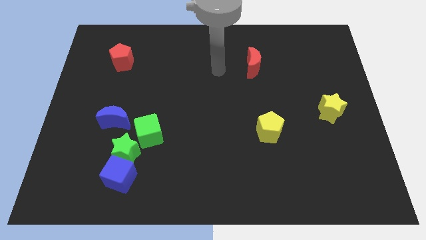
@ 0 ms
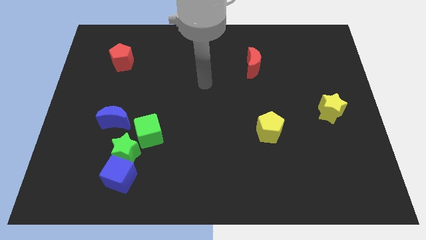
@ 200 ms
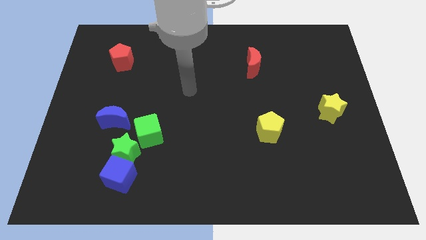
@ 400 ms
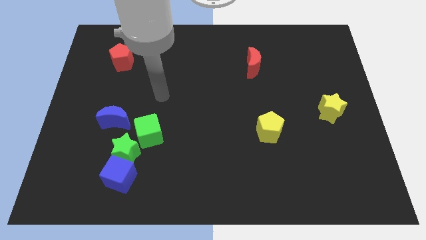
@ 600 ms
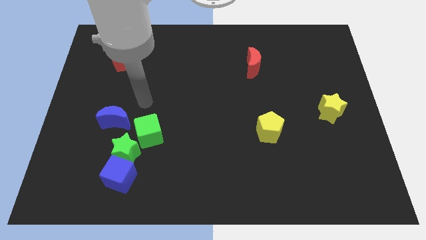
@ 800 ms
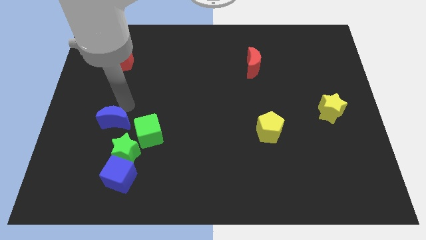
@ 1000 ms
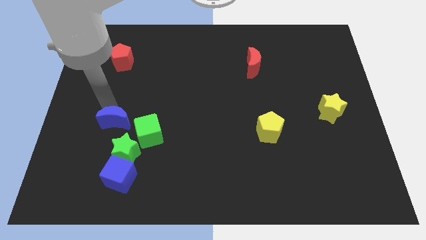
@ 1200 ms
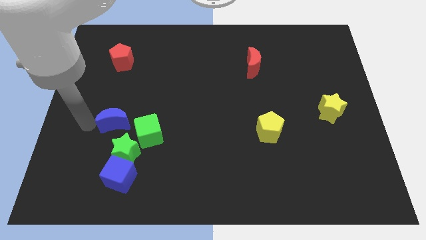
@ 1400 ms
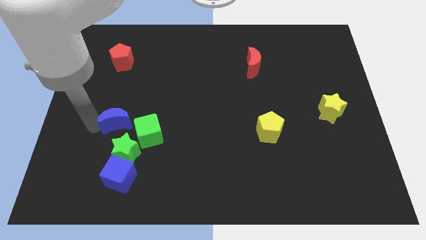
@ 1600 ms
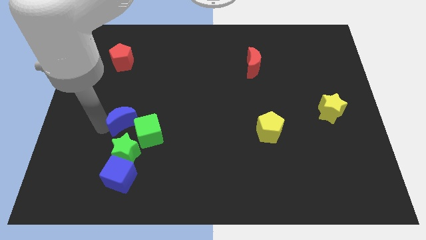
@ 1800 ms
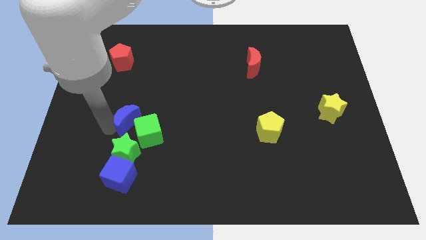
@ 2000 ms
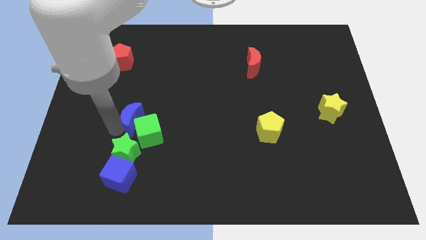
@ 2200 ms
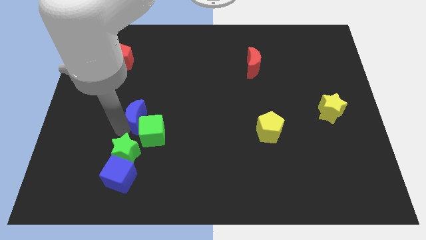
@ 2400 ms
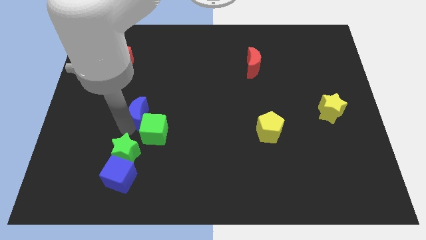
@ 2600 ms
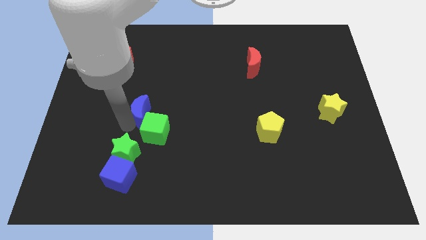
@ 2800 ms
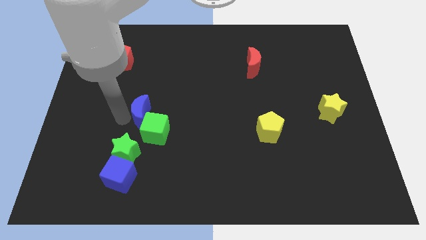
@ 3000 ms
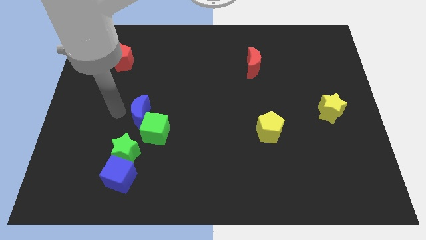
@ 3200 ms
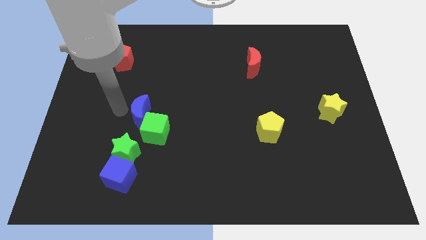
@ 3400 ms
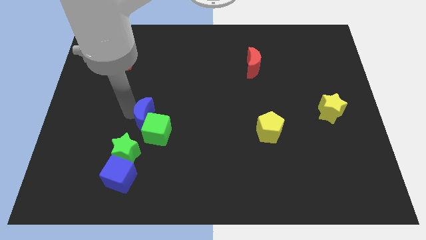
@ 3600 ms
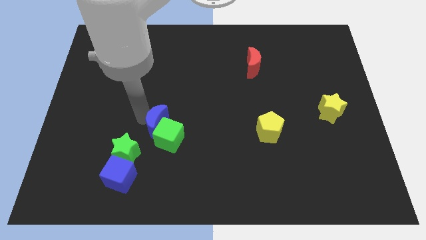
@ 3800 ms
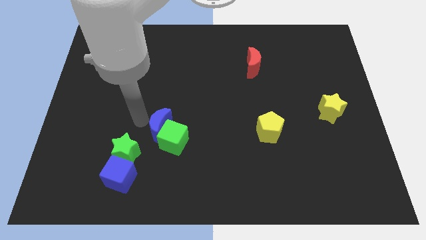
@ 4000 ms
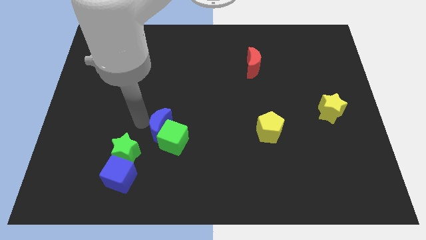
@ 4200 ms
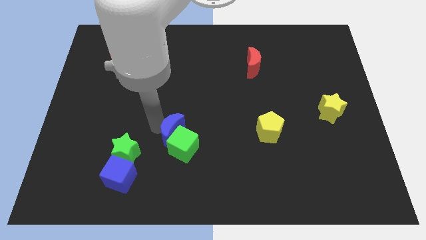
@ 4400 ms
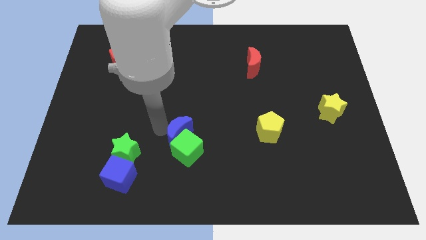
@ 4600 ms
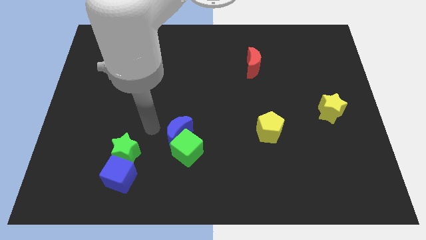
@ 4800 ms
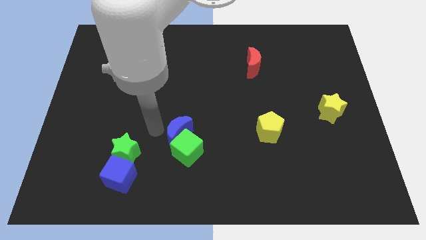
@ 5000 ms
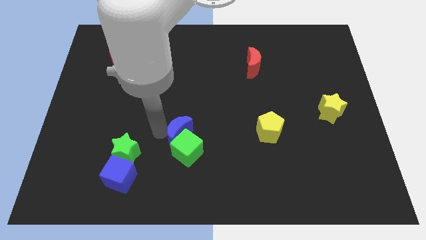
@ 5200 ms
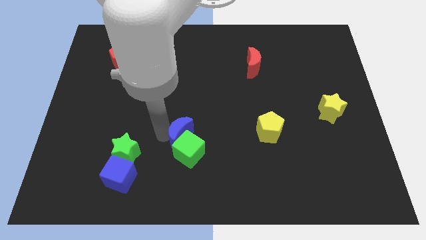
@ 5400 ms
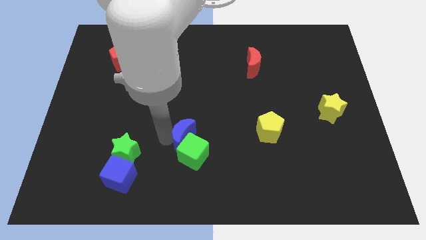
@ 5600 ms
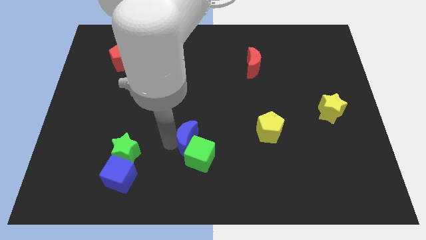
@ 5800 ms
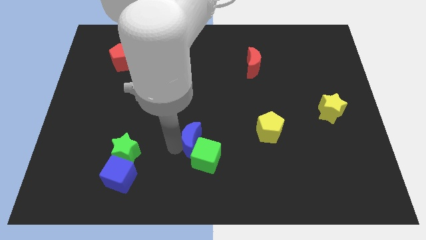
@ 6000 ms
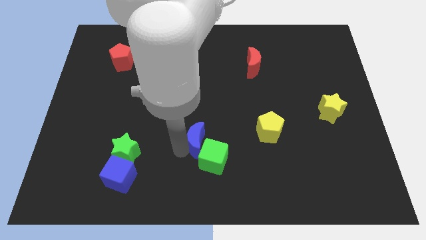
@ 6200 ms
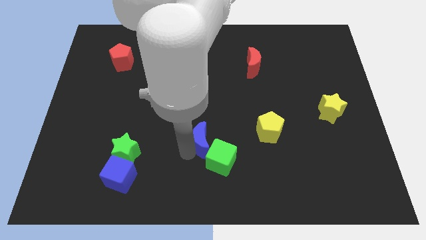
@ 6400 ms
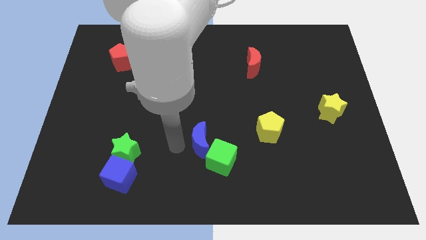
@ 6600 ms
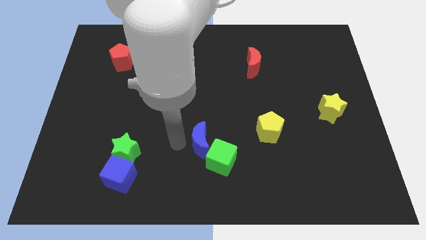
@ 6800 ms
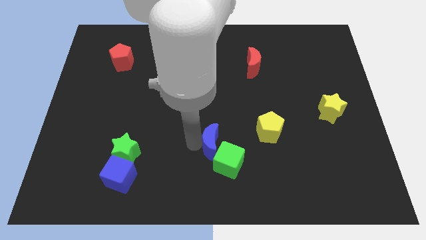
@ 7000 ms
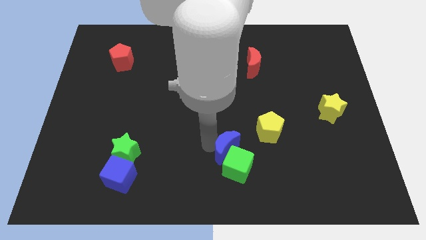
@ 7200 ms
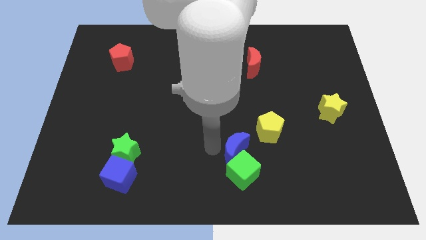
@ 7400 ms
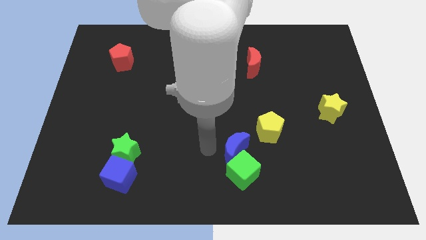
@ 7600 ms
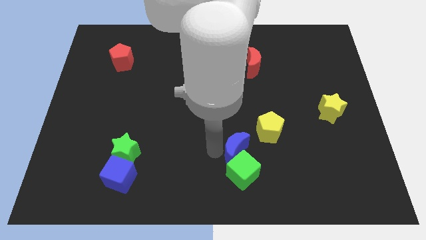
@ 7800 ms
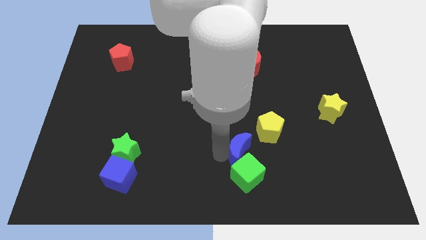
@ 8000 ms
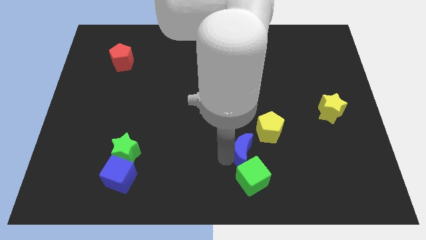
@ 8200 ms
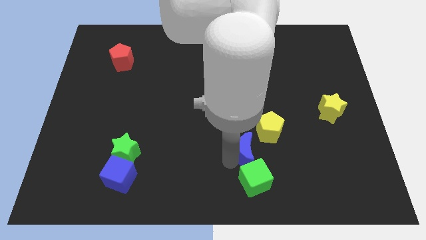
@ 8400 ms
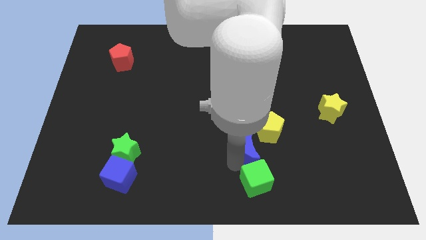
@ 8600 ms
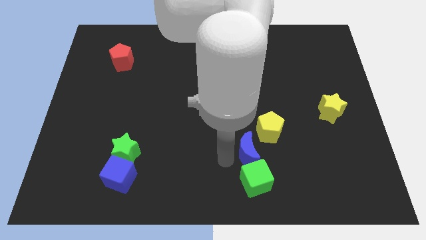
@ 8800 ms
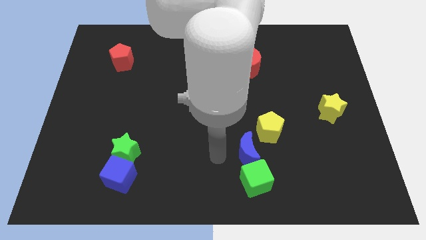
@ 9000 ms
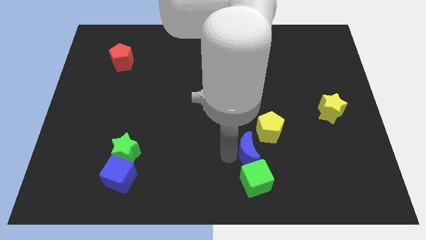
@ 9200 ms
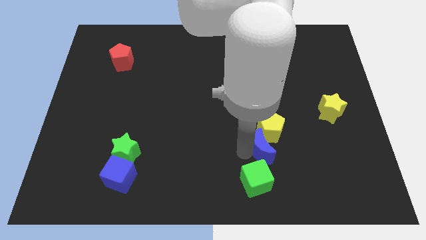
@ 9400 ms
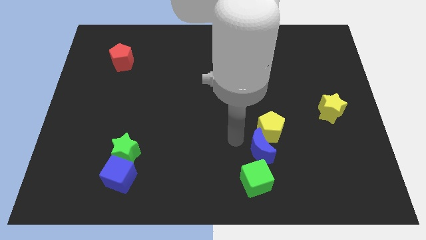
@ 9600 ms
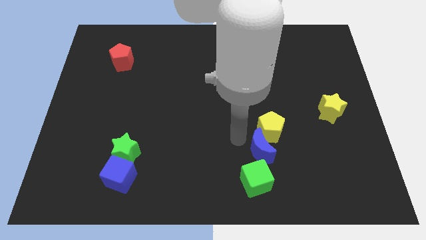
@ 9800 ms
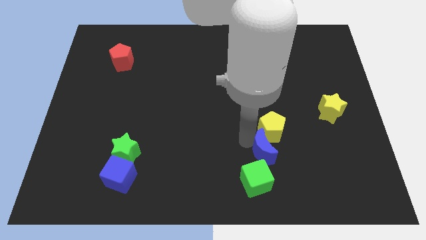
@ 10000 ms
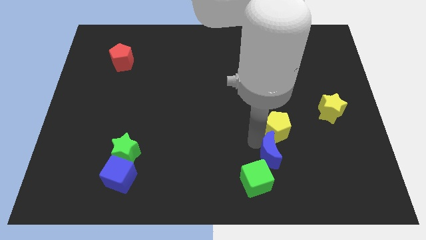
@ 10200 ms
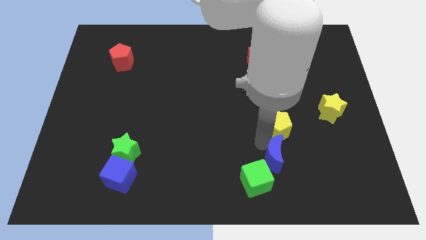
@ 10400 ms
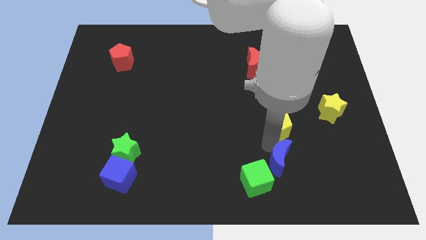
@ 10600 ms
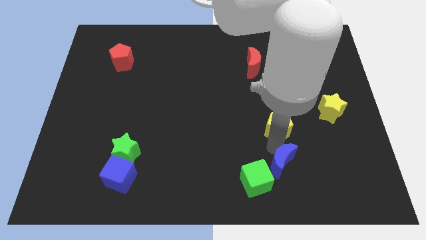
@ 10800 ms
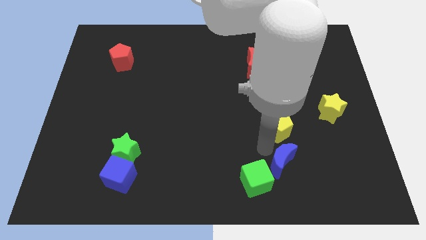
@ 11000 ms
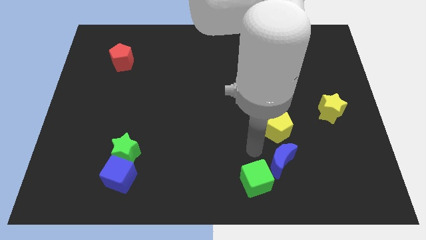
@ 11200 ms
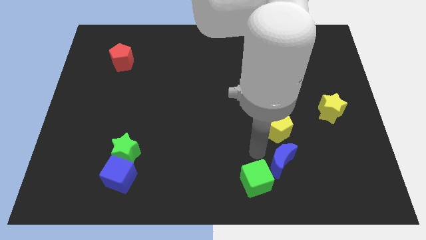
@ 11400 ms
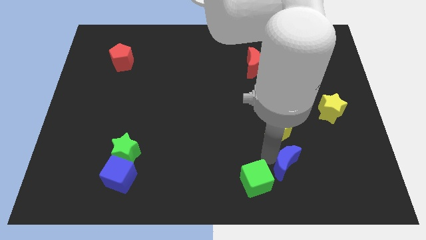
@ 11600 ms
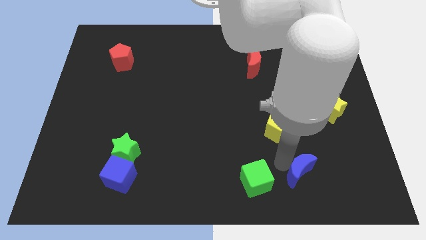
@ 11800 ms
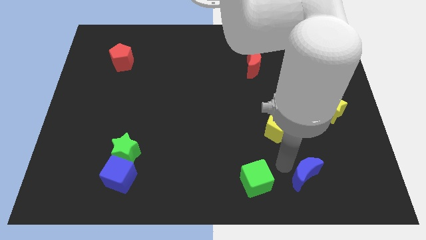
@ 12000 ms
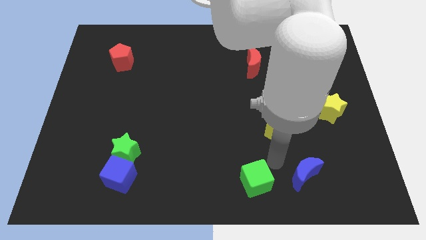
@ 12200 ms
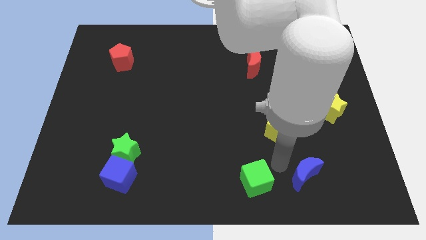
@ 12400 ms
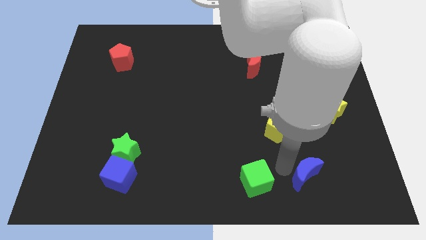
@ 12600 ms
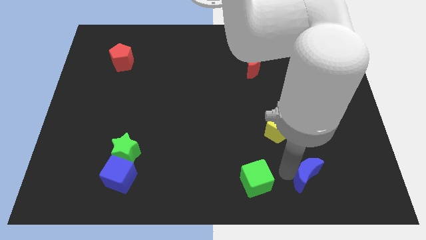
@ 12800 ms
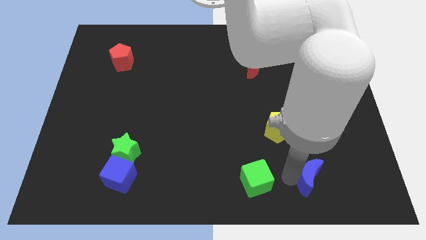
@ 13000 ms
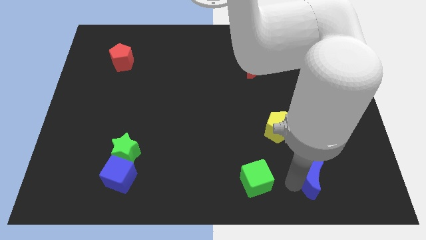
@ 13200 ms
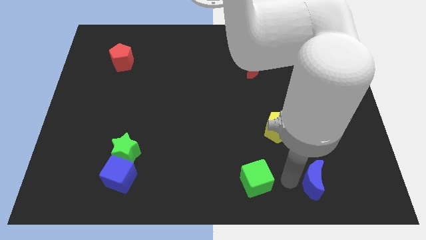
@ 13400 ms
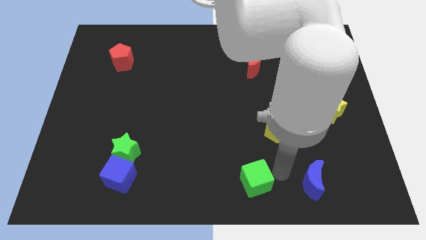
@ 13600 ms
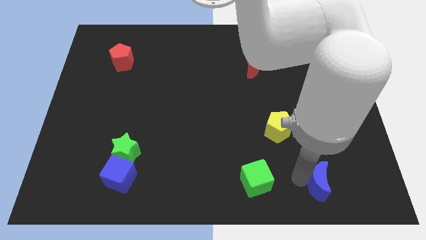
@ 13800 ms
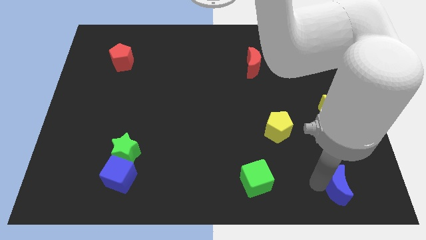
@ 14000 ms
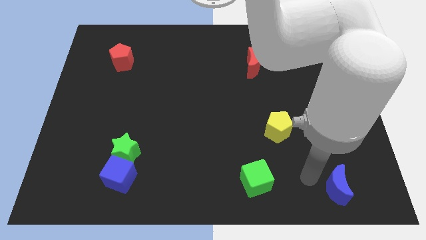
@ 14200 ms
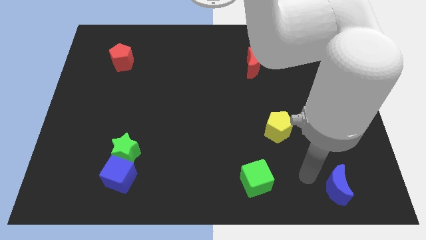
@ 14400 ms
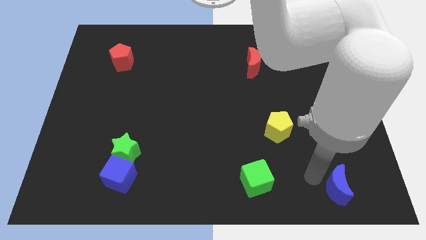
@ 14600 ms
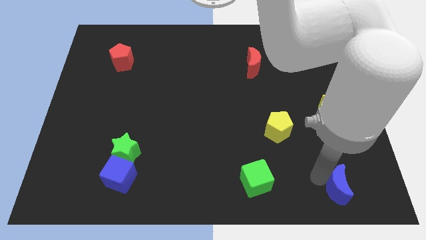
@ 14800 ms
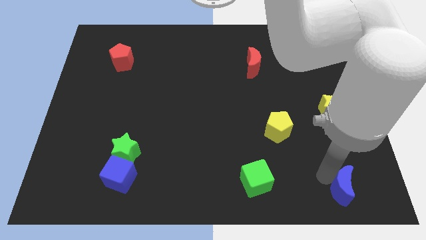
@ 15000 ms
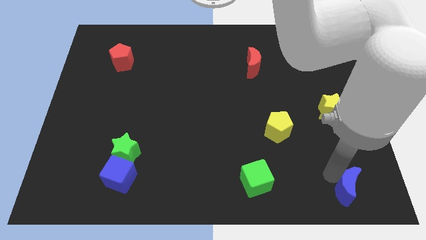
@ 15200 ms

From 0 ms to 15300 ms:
slide the blue moon to the bottom right corner
